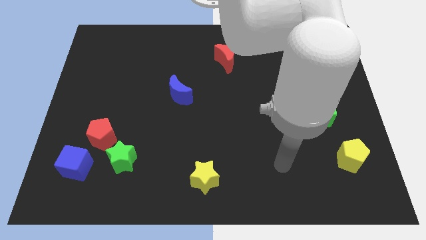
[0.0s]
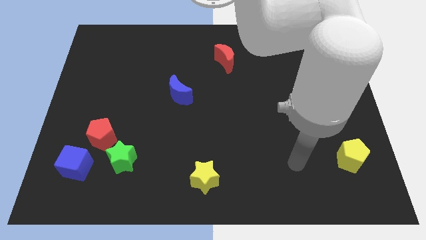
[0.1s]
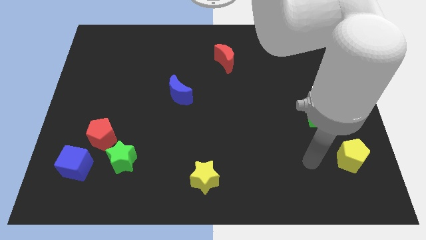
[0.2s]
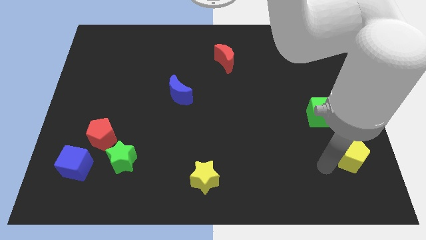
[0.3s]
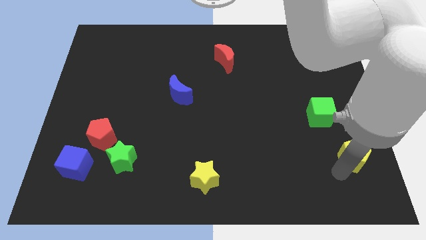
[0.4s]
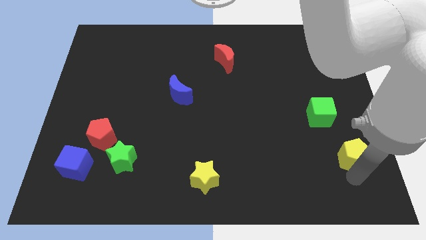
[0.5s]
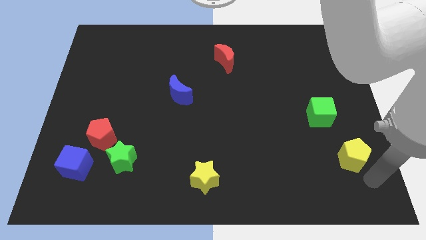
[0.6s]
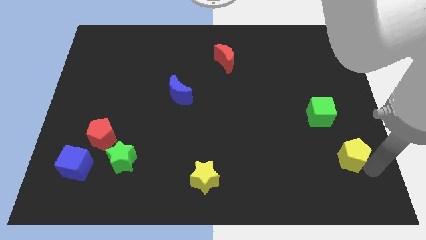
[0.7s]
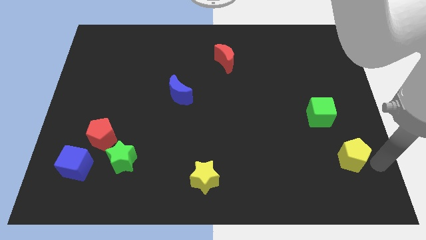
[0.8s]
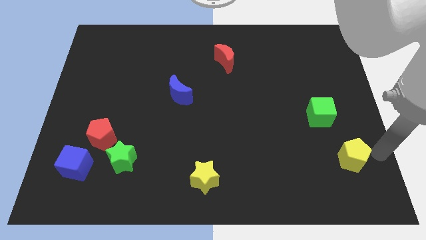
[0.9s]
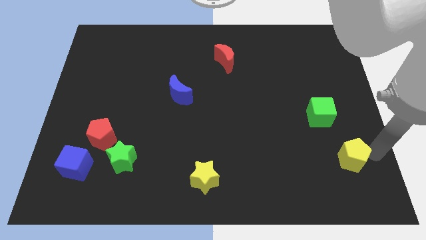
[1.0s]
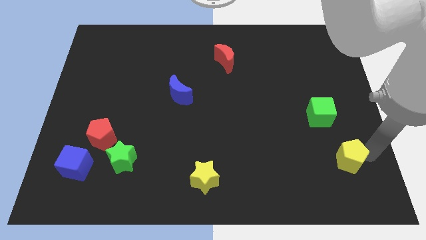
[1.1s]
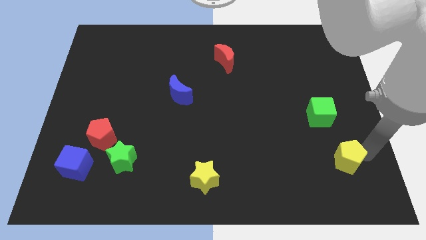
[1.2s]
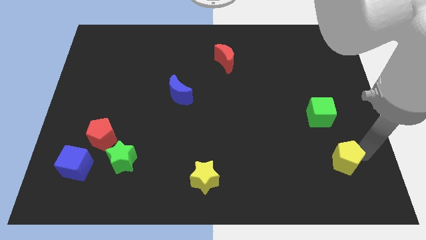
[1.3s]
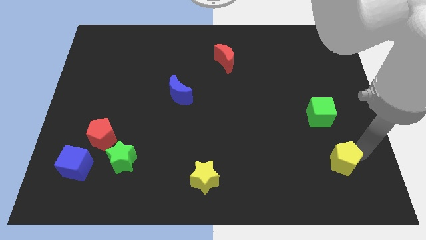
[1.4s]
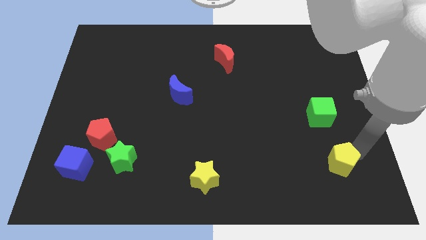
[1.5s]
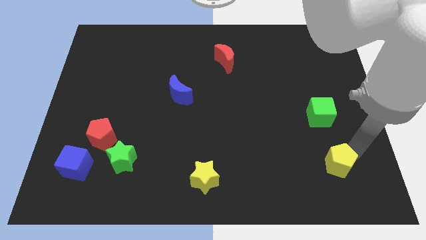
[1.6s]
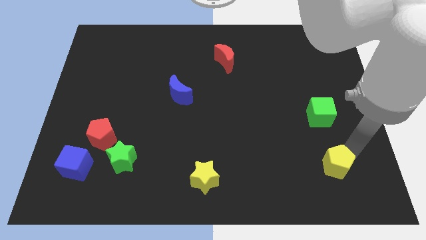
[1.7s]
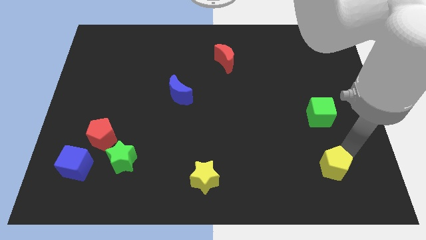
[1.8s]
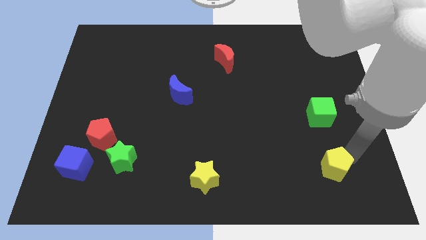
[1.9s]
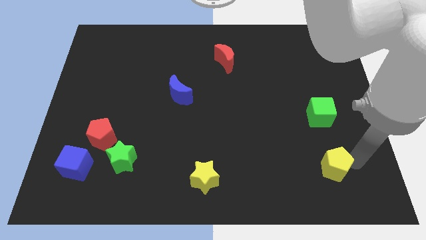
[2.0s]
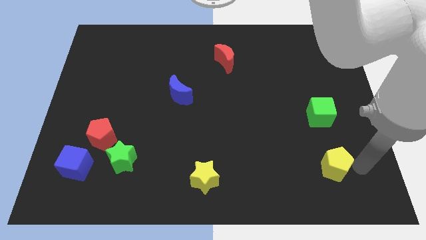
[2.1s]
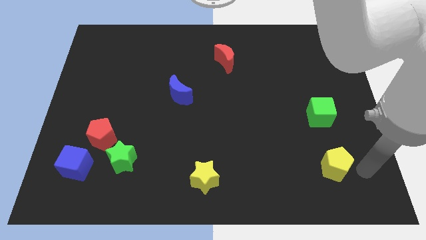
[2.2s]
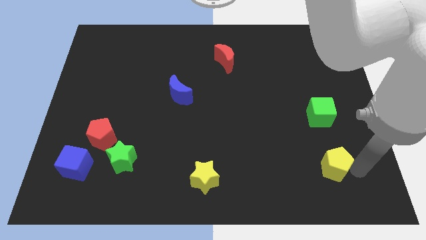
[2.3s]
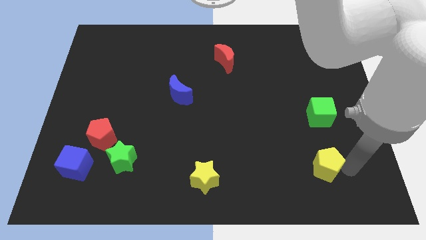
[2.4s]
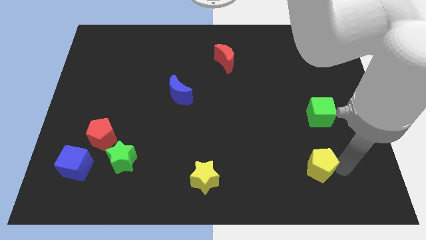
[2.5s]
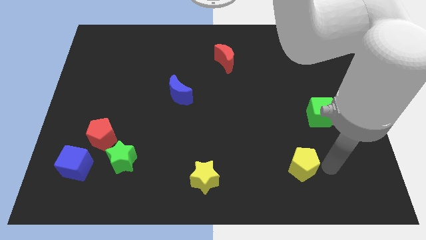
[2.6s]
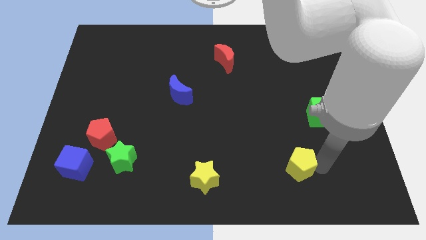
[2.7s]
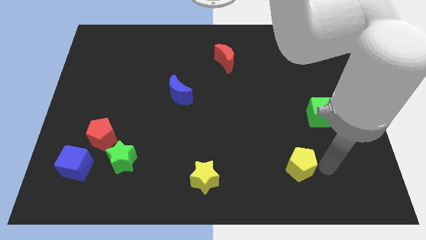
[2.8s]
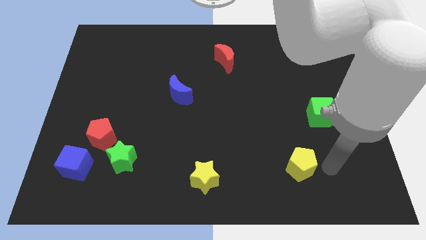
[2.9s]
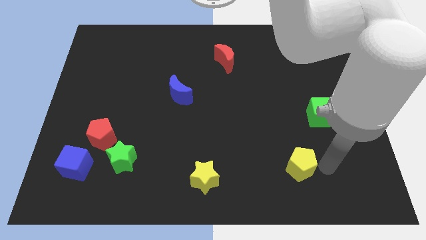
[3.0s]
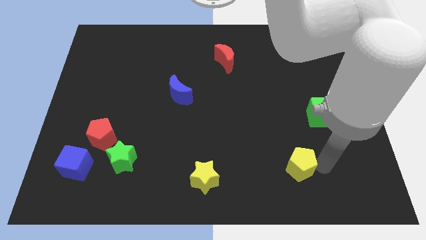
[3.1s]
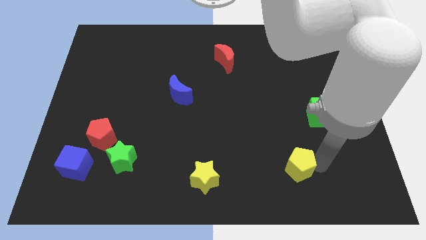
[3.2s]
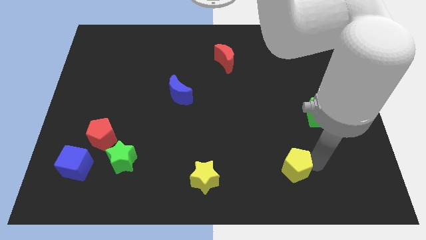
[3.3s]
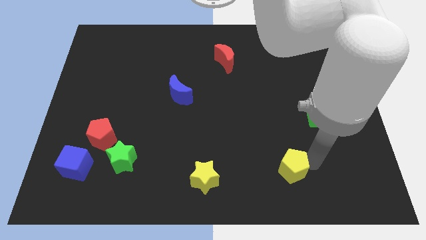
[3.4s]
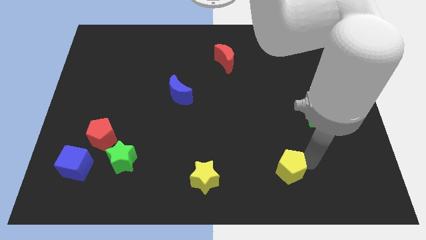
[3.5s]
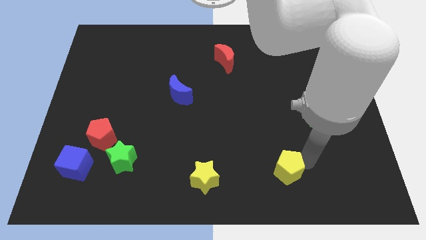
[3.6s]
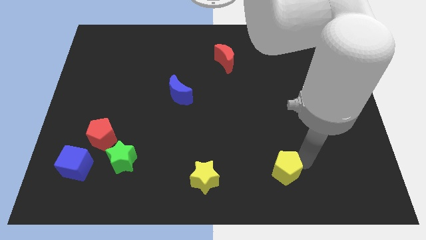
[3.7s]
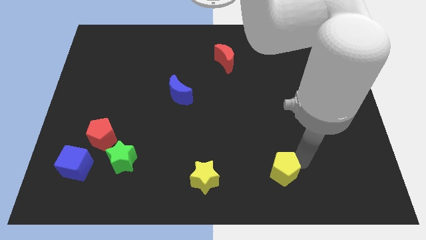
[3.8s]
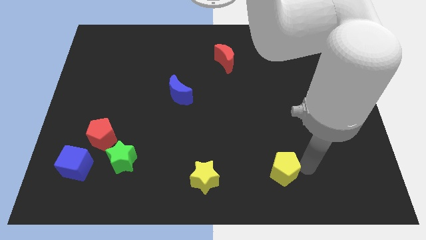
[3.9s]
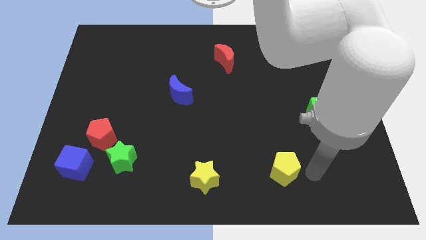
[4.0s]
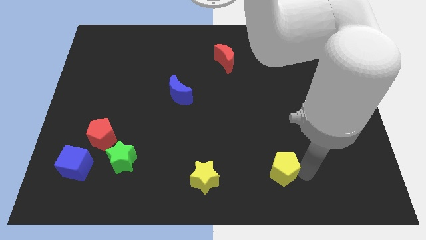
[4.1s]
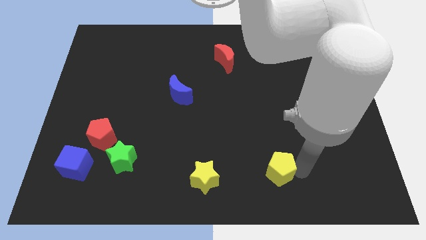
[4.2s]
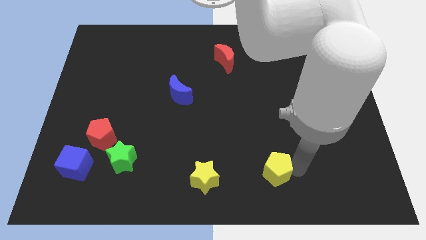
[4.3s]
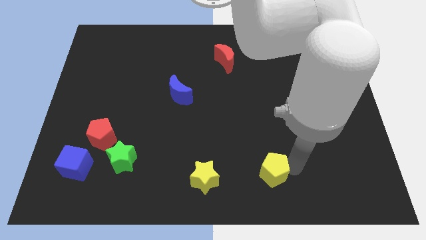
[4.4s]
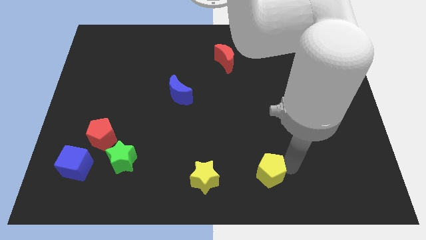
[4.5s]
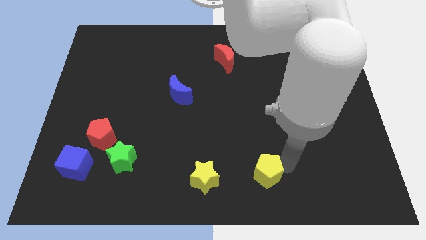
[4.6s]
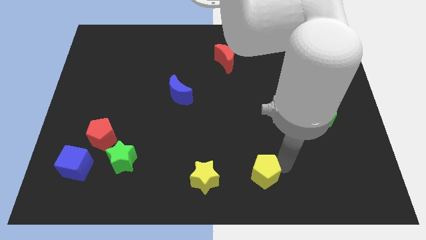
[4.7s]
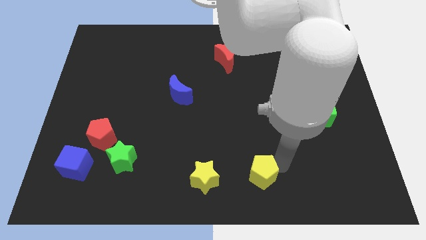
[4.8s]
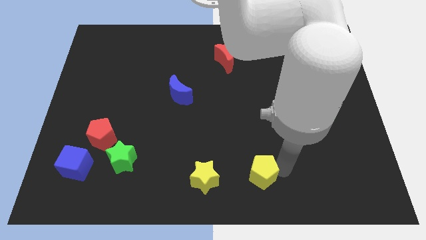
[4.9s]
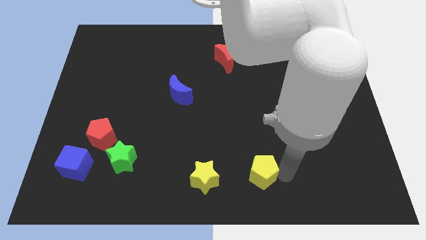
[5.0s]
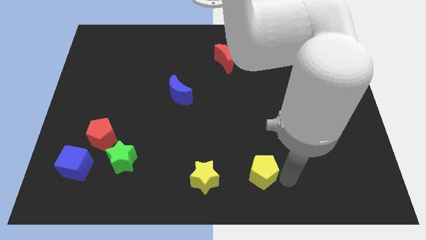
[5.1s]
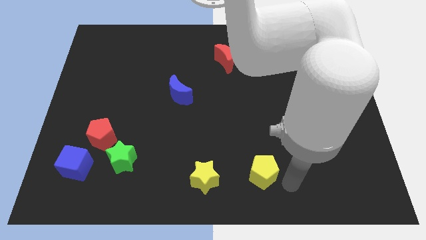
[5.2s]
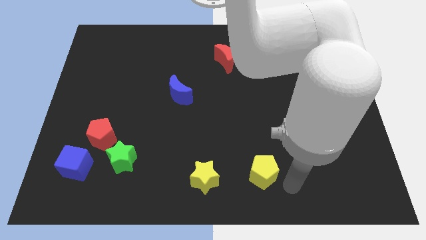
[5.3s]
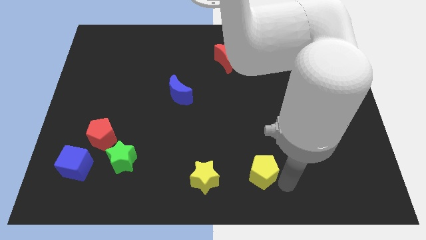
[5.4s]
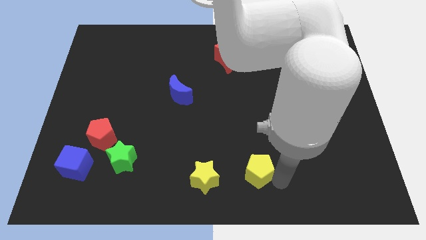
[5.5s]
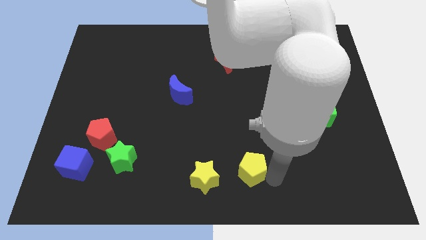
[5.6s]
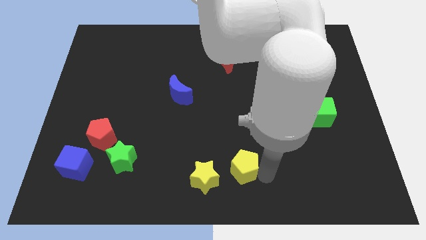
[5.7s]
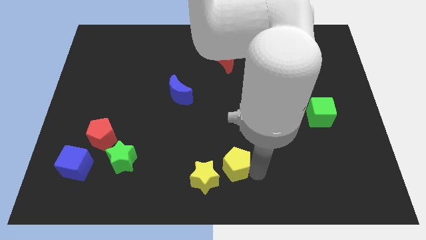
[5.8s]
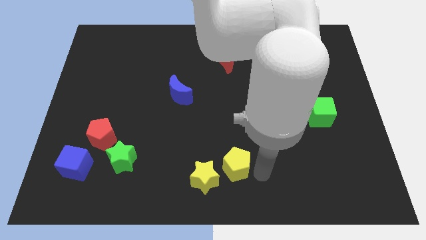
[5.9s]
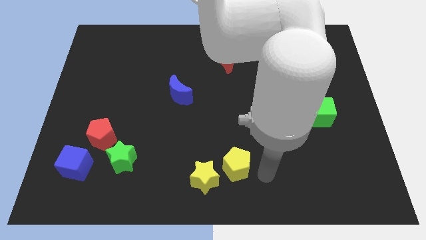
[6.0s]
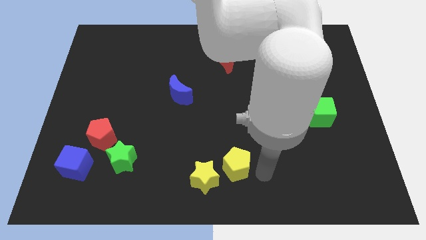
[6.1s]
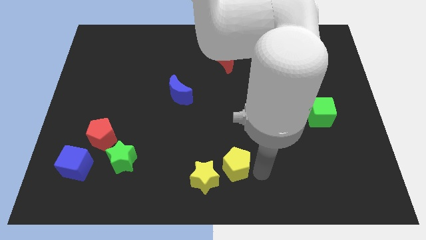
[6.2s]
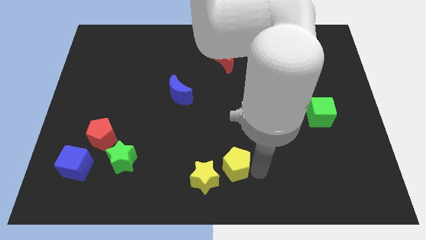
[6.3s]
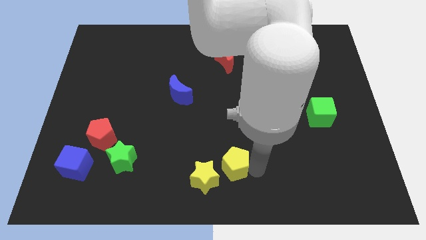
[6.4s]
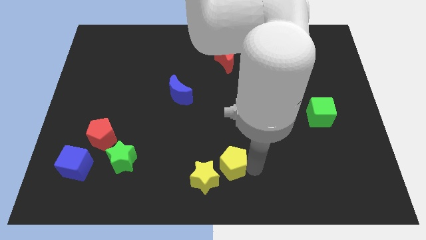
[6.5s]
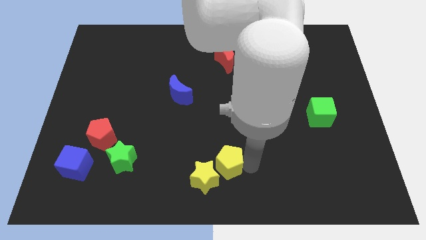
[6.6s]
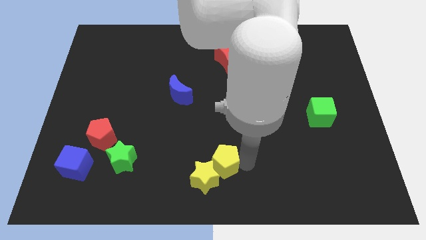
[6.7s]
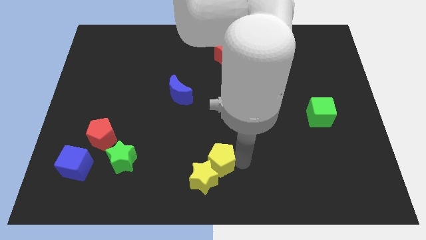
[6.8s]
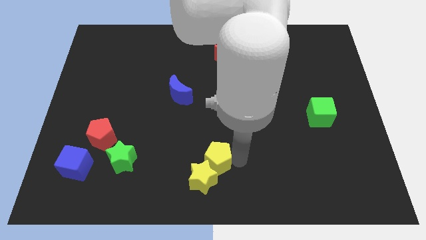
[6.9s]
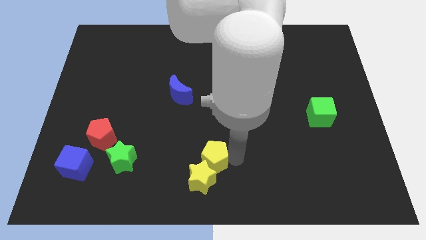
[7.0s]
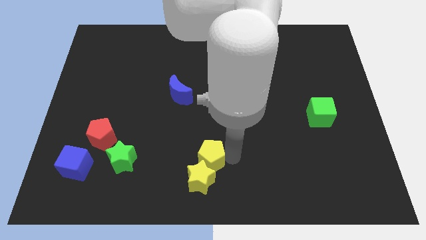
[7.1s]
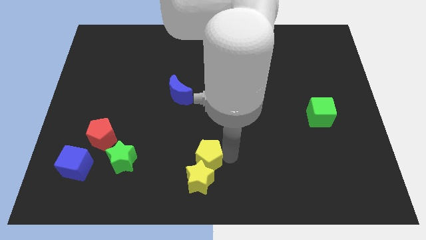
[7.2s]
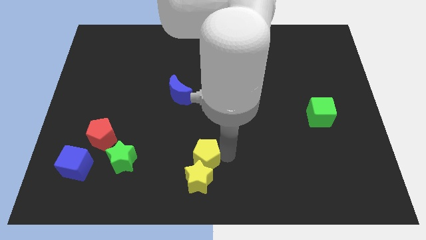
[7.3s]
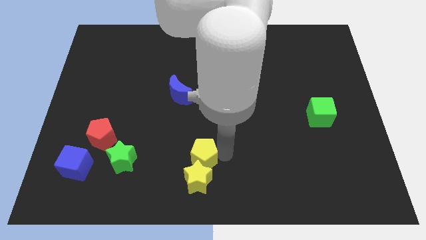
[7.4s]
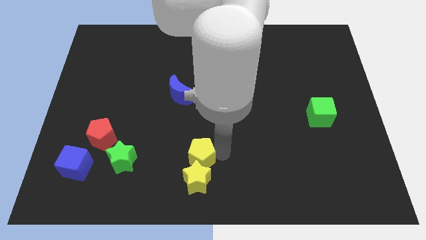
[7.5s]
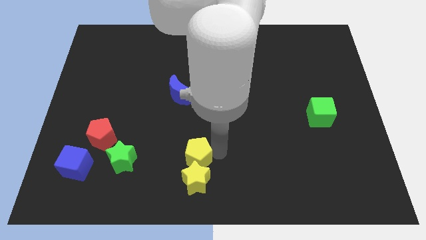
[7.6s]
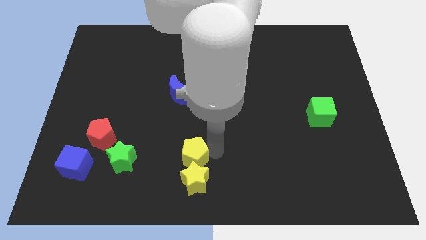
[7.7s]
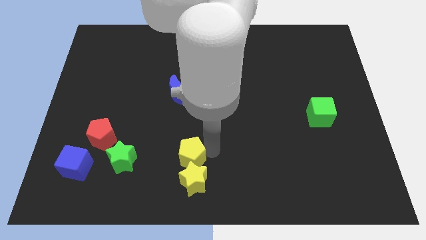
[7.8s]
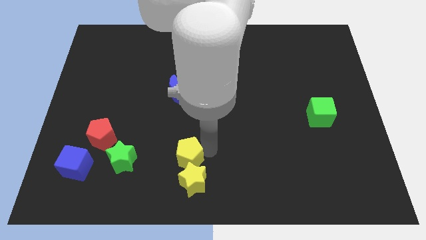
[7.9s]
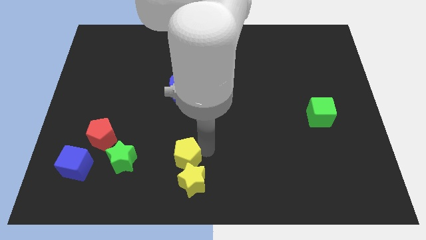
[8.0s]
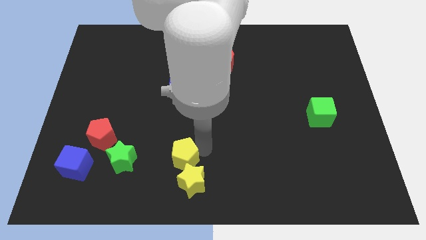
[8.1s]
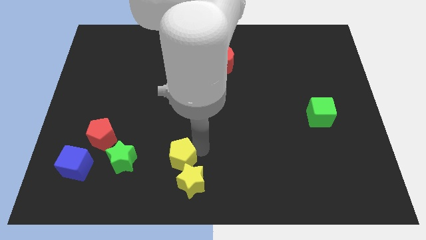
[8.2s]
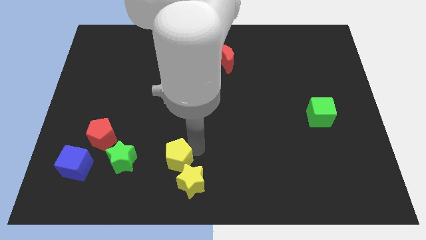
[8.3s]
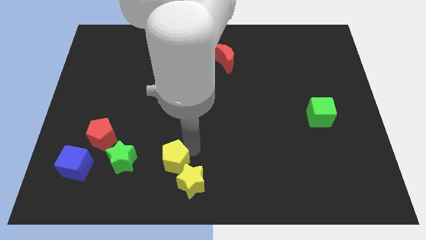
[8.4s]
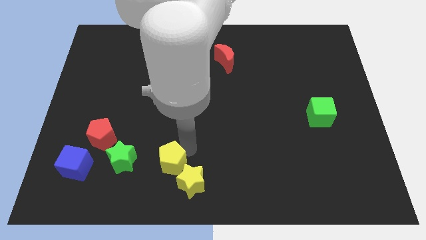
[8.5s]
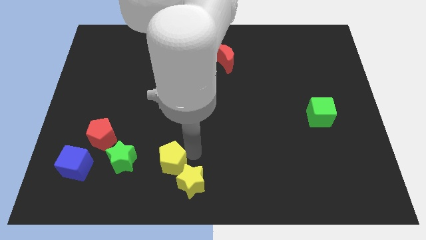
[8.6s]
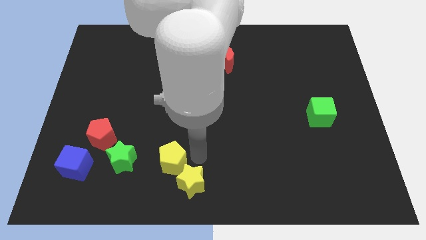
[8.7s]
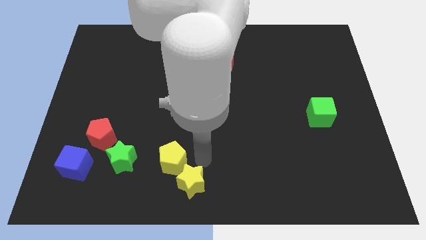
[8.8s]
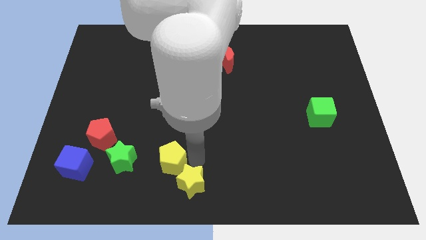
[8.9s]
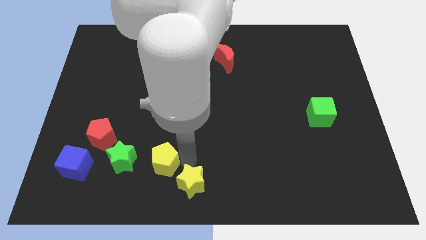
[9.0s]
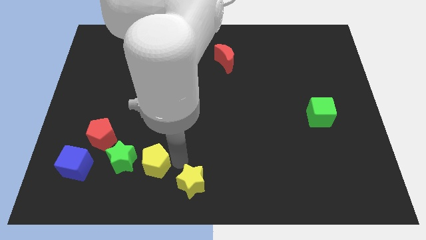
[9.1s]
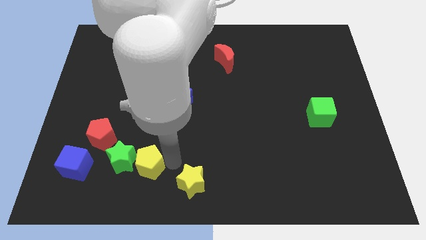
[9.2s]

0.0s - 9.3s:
move the yellow pentagon close to the green star
